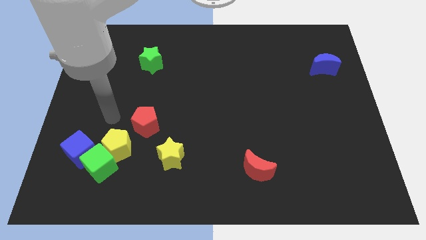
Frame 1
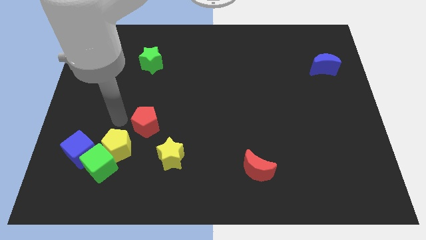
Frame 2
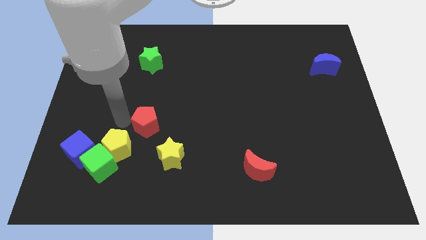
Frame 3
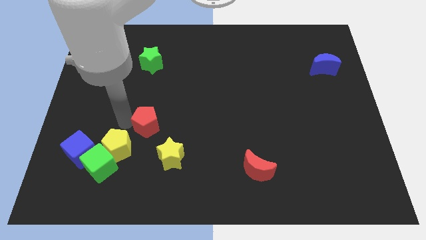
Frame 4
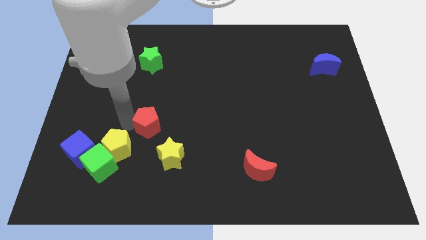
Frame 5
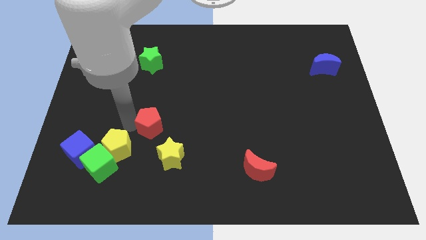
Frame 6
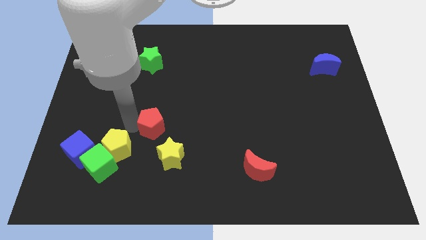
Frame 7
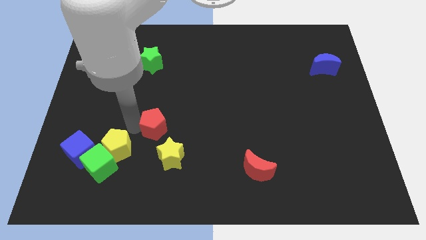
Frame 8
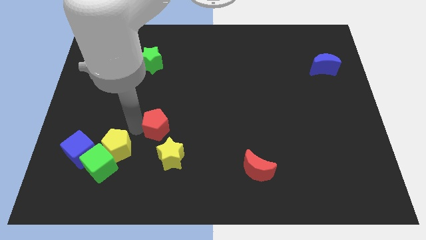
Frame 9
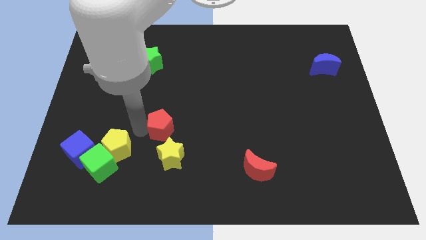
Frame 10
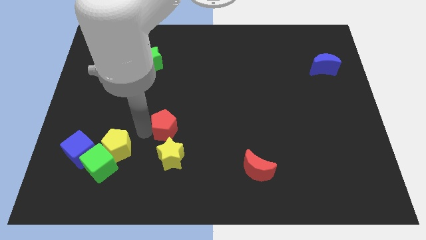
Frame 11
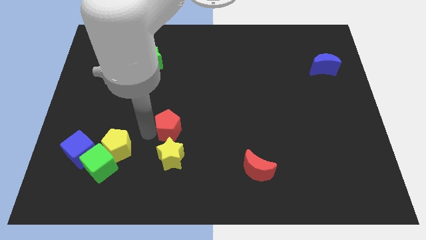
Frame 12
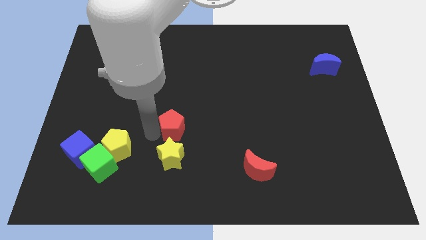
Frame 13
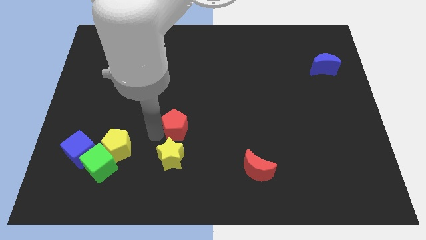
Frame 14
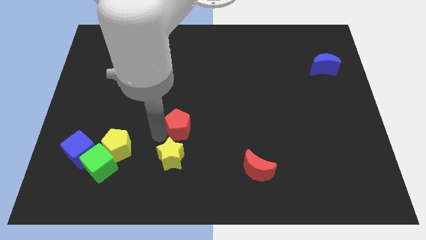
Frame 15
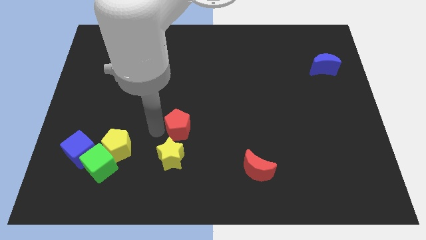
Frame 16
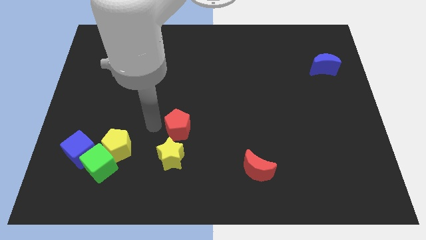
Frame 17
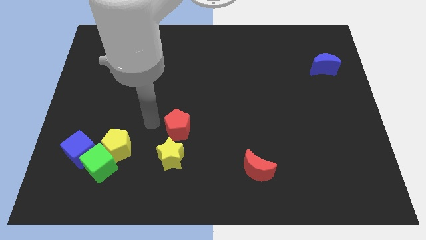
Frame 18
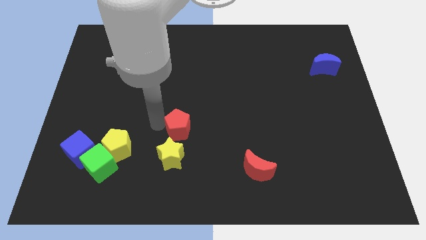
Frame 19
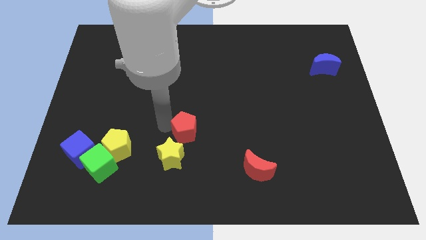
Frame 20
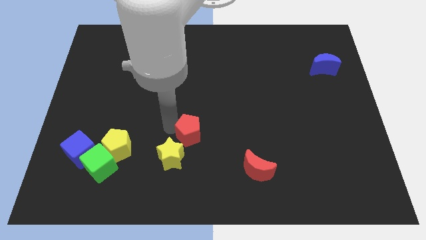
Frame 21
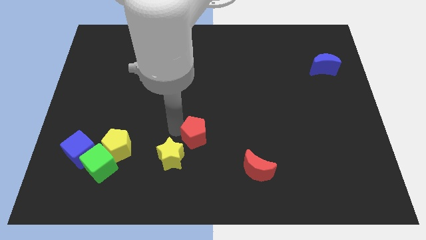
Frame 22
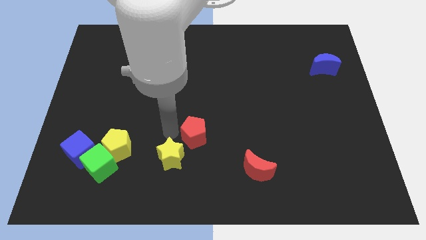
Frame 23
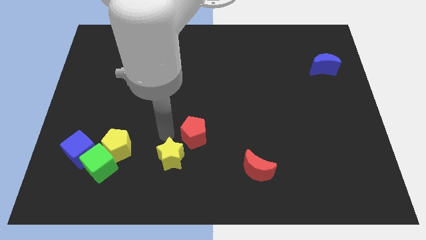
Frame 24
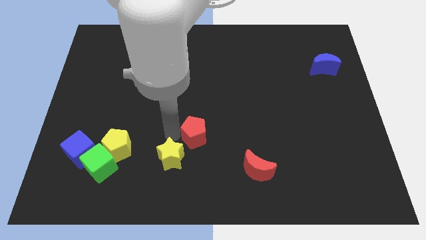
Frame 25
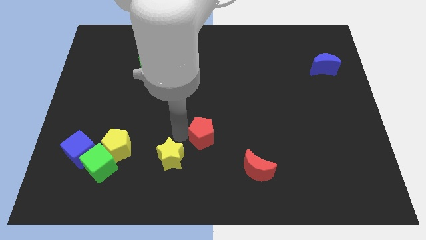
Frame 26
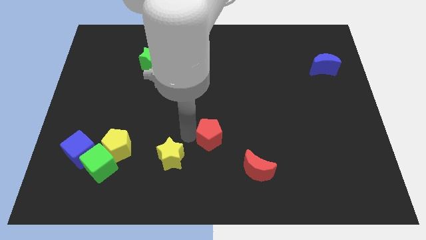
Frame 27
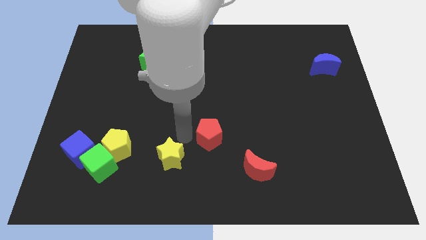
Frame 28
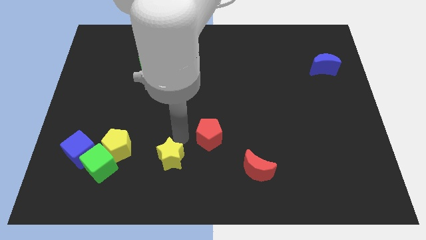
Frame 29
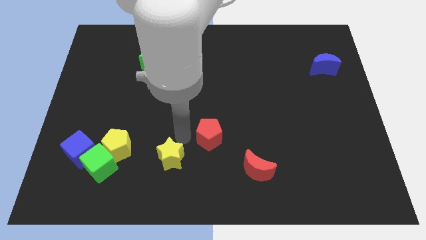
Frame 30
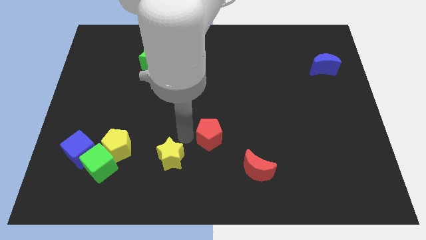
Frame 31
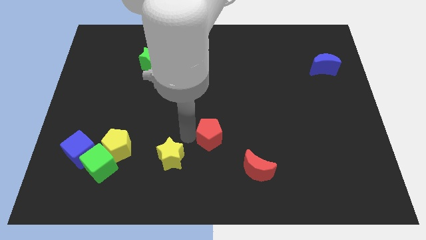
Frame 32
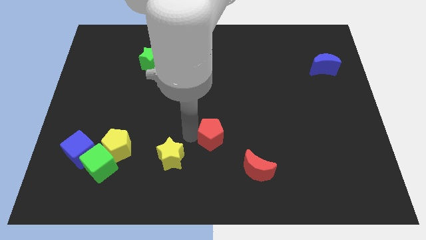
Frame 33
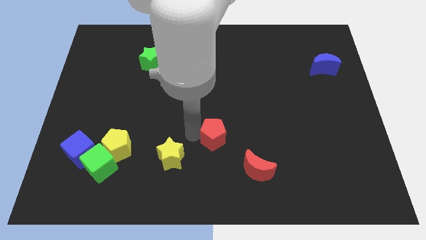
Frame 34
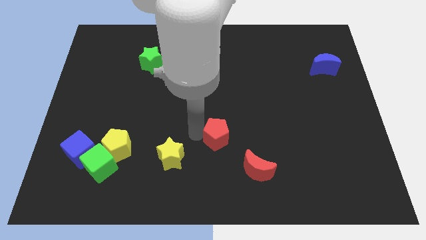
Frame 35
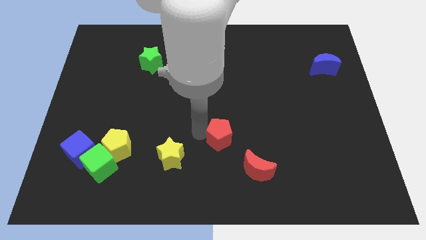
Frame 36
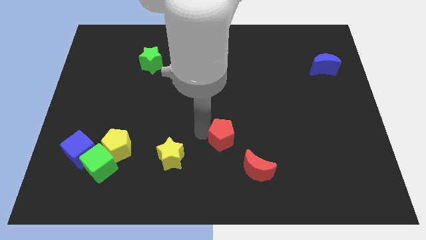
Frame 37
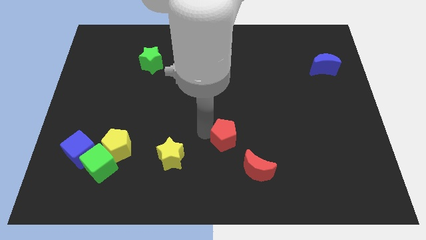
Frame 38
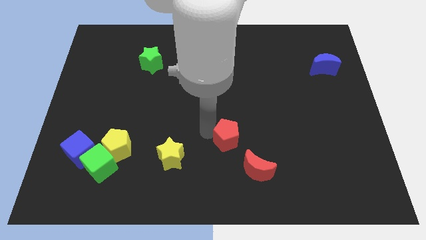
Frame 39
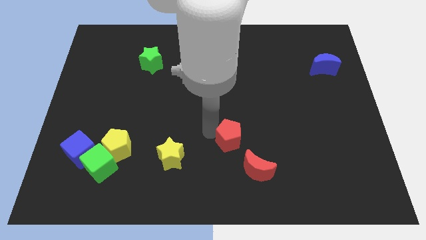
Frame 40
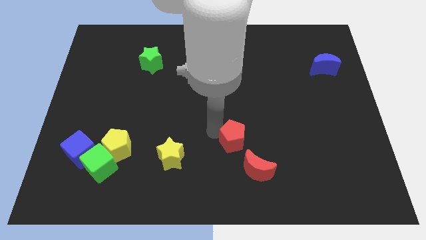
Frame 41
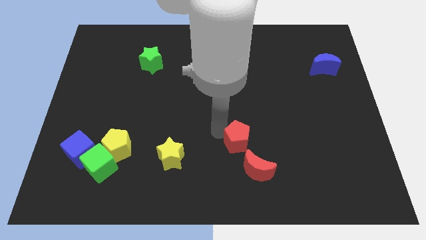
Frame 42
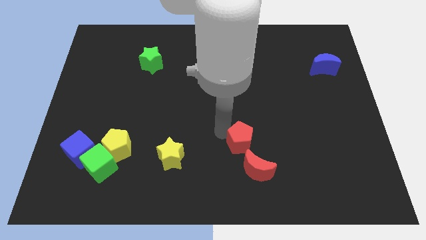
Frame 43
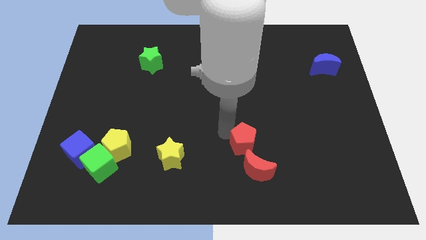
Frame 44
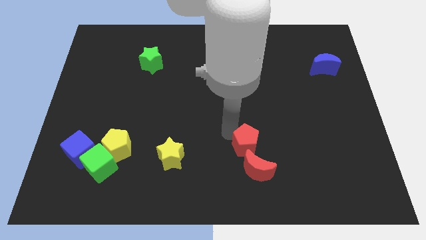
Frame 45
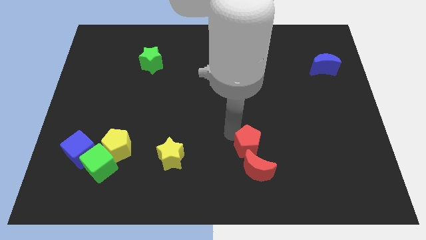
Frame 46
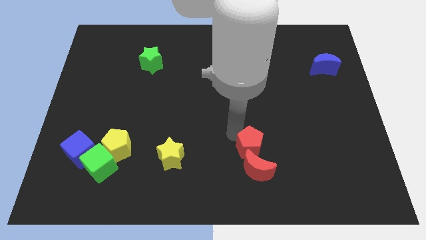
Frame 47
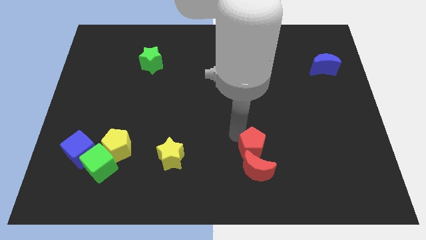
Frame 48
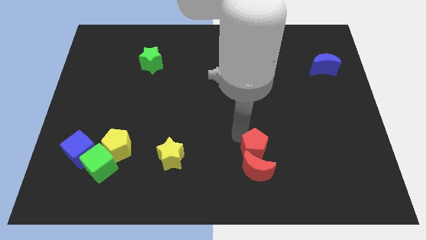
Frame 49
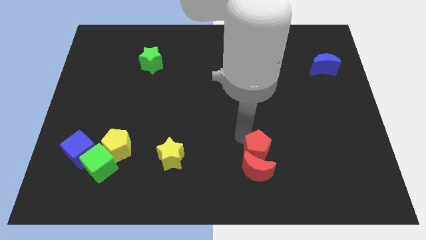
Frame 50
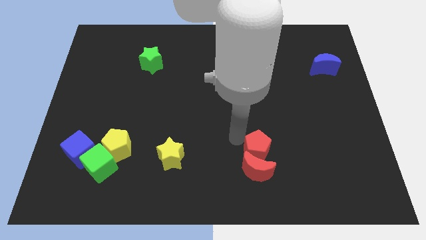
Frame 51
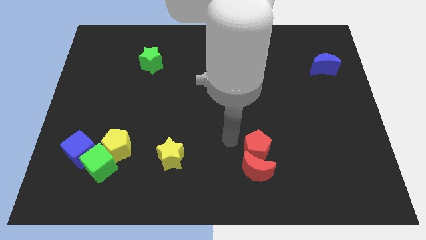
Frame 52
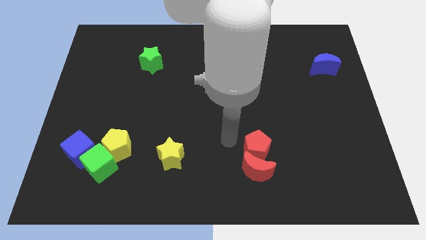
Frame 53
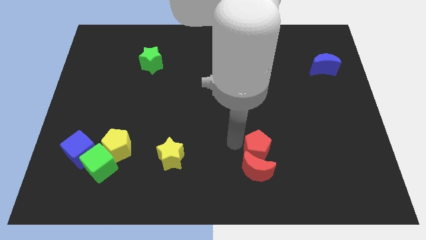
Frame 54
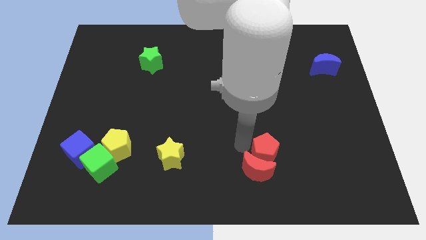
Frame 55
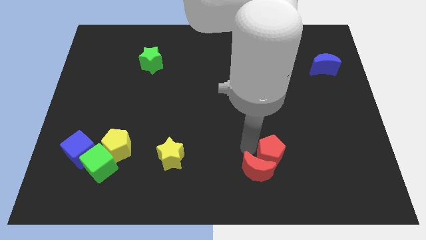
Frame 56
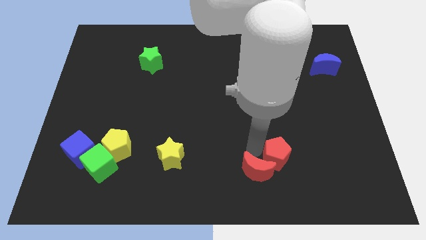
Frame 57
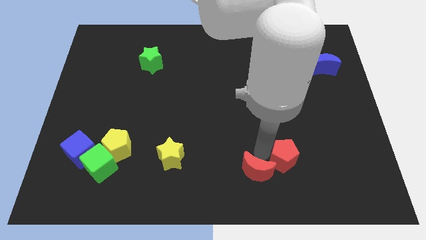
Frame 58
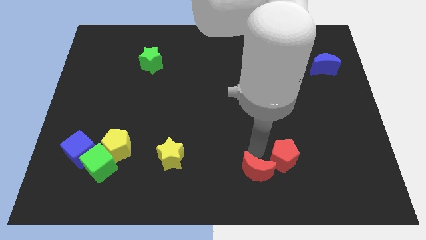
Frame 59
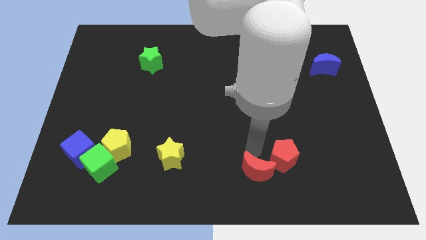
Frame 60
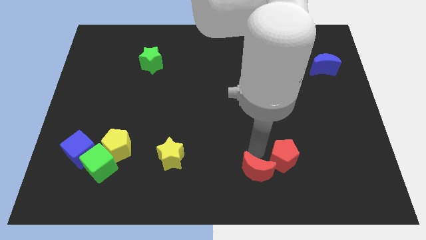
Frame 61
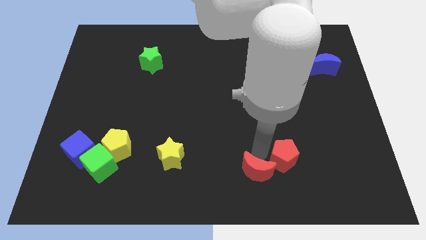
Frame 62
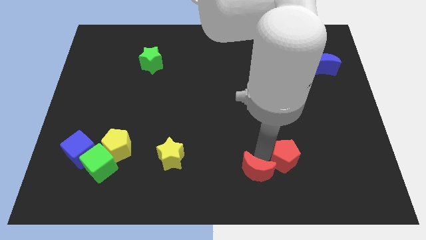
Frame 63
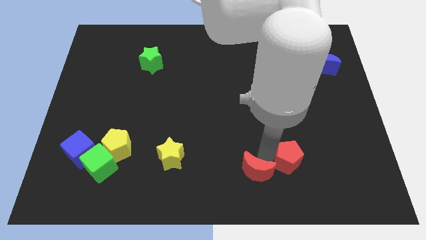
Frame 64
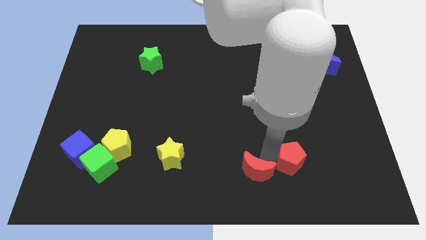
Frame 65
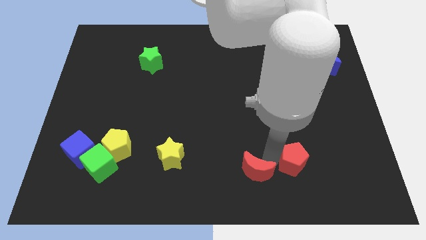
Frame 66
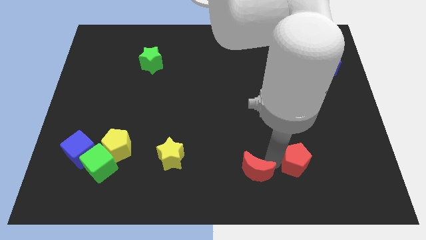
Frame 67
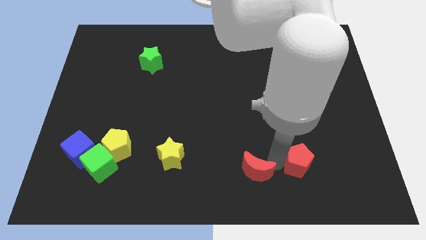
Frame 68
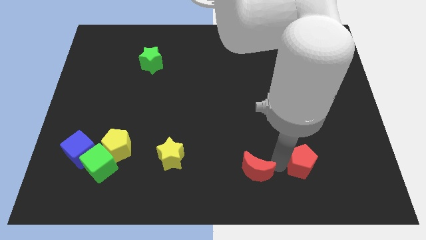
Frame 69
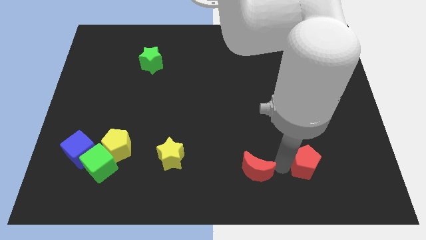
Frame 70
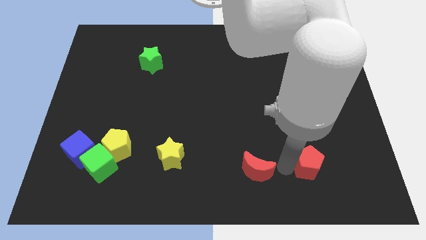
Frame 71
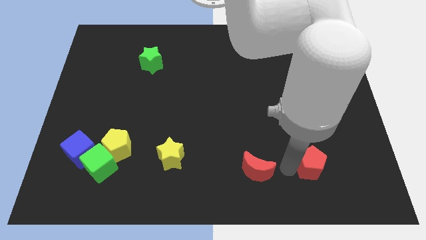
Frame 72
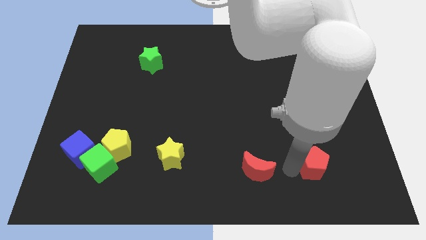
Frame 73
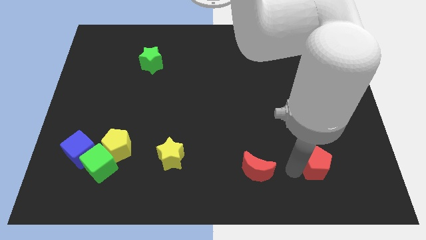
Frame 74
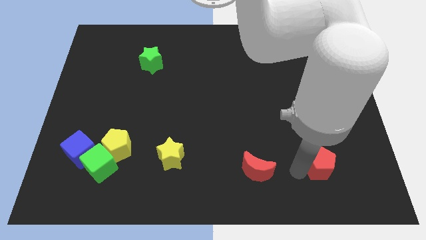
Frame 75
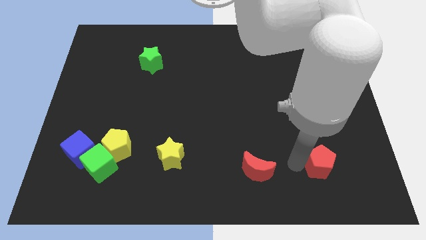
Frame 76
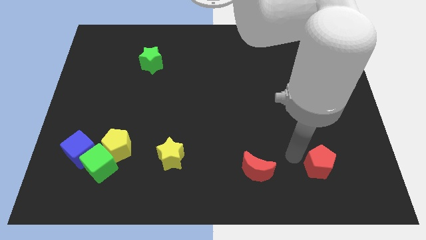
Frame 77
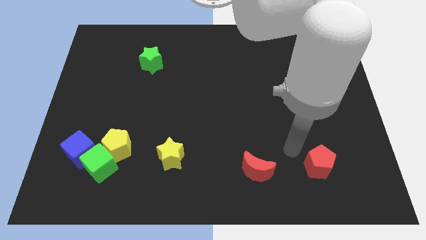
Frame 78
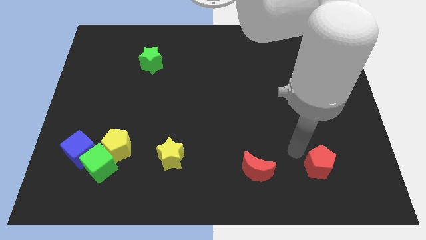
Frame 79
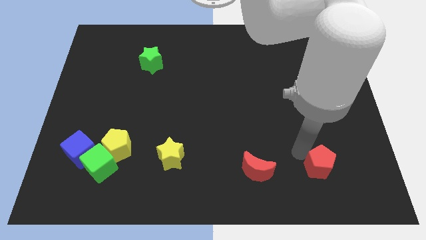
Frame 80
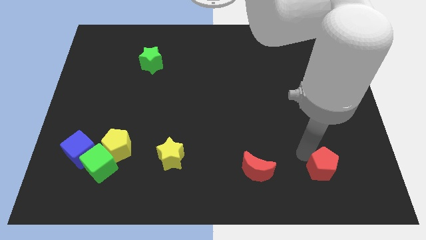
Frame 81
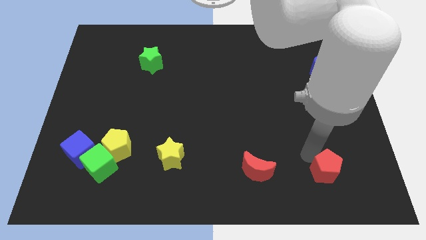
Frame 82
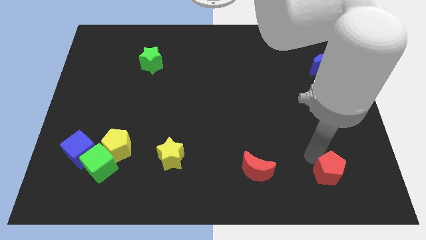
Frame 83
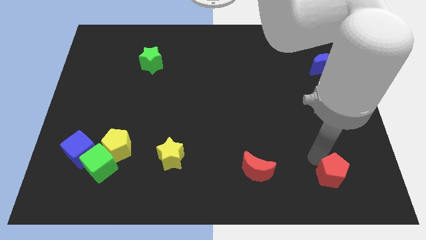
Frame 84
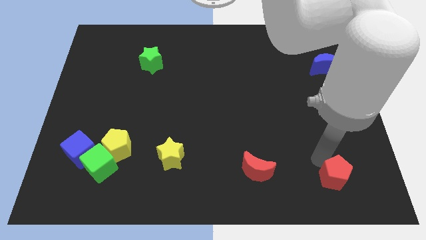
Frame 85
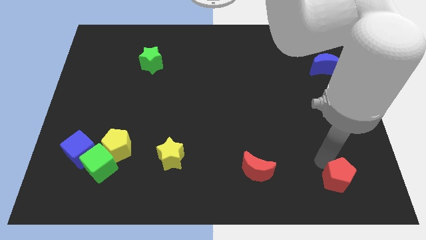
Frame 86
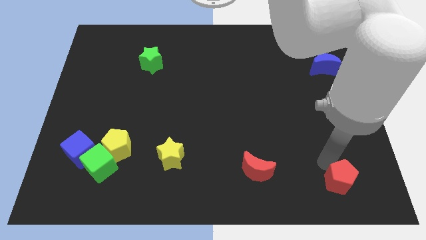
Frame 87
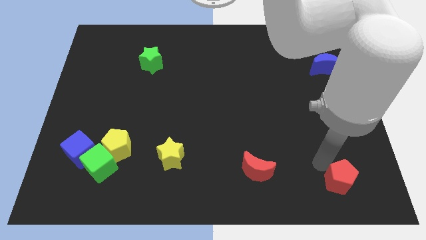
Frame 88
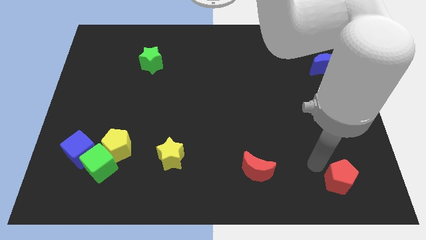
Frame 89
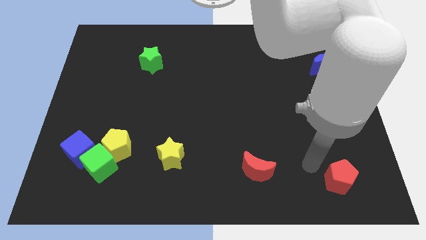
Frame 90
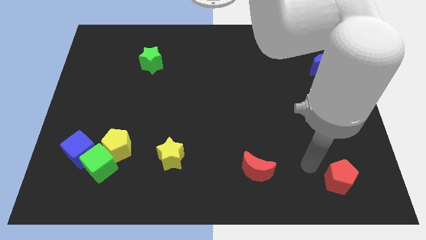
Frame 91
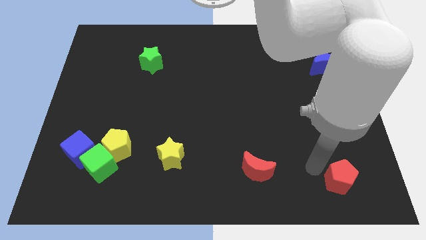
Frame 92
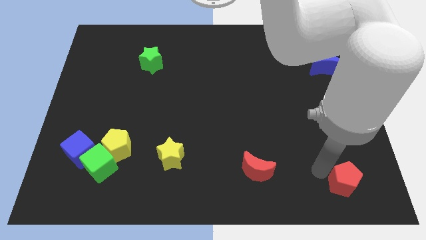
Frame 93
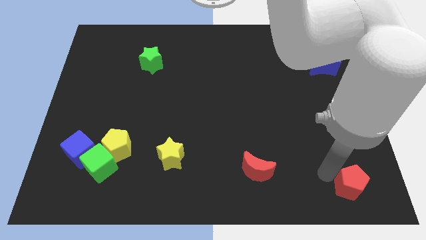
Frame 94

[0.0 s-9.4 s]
push the red pentagon to the bottom right corner
